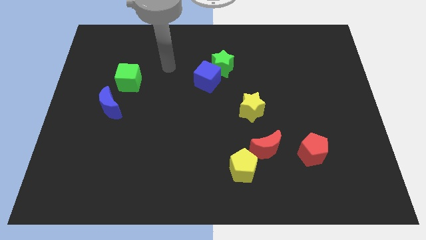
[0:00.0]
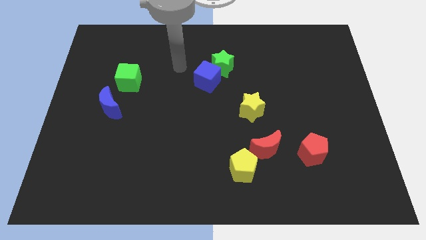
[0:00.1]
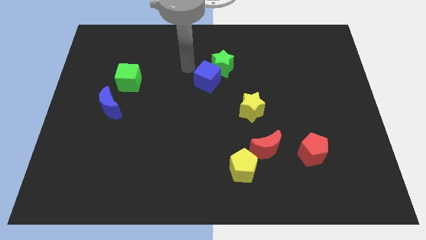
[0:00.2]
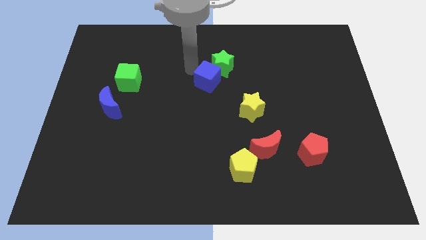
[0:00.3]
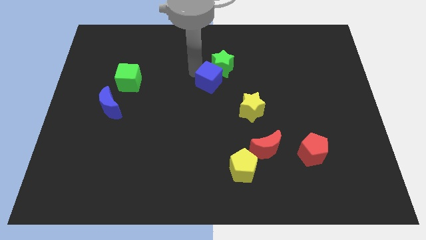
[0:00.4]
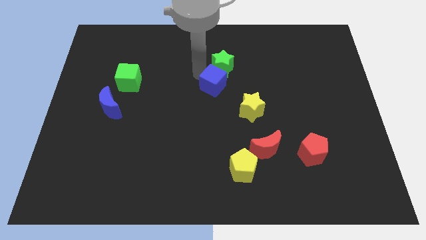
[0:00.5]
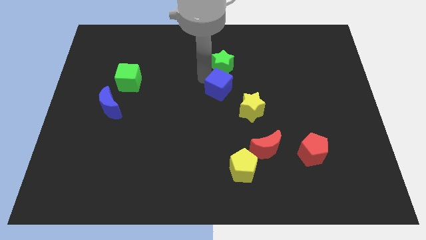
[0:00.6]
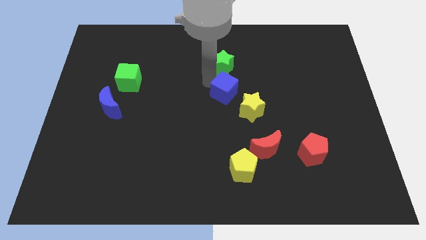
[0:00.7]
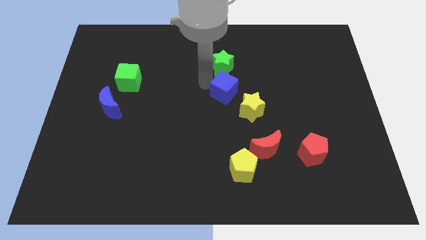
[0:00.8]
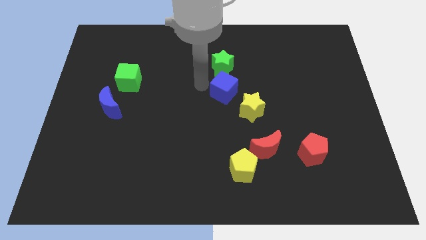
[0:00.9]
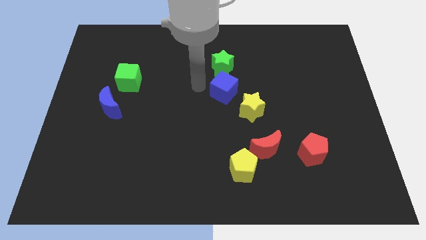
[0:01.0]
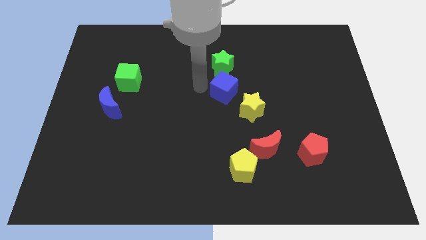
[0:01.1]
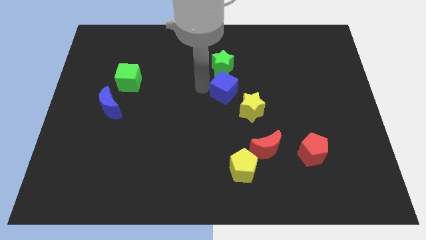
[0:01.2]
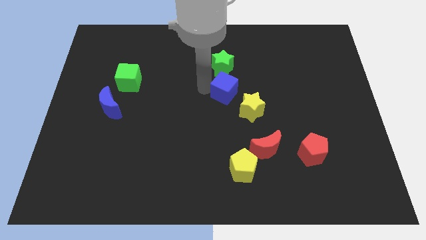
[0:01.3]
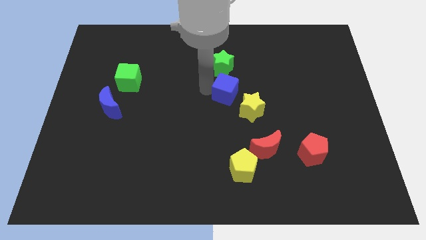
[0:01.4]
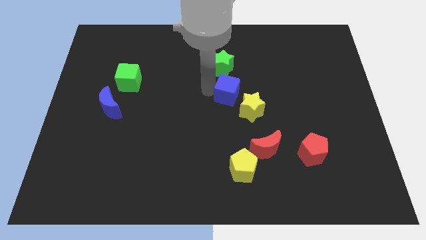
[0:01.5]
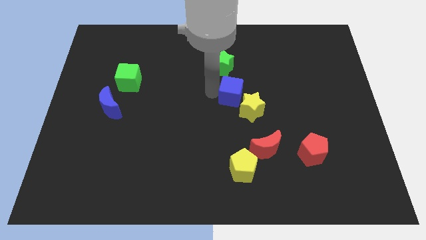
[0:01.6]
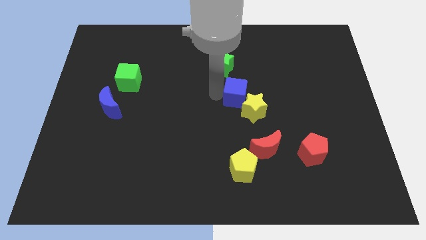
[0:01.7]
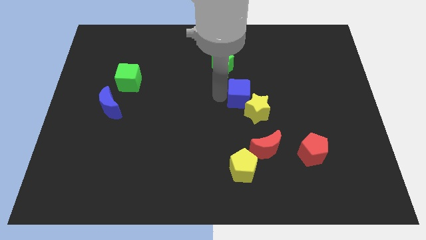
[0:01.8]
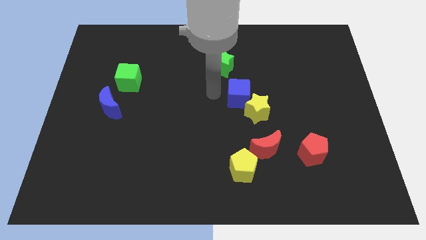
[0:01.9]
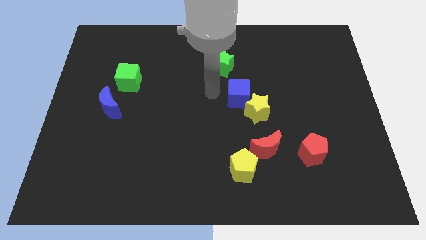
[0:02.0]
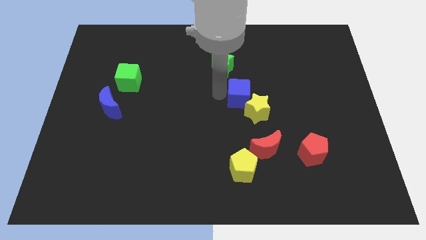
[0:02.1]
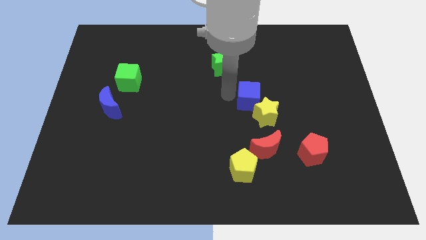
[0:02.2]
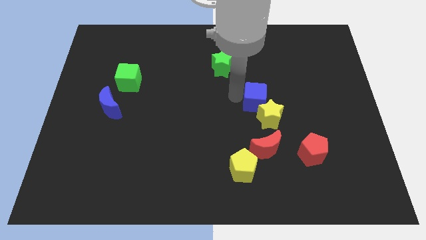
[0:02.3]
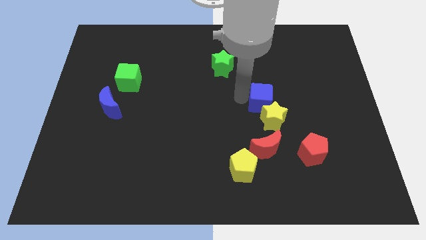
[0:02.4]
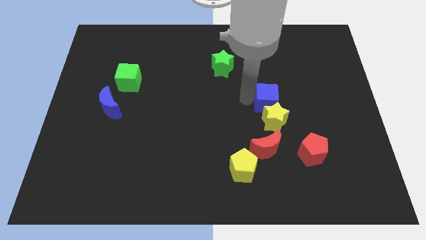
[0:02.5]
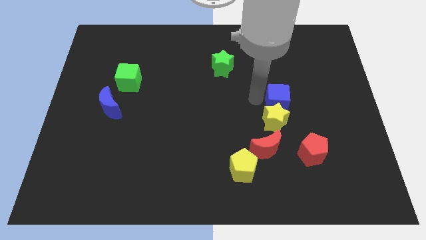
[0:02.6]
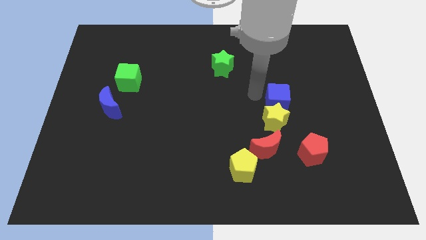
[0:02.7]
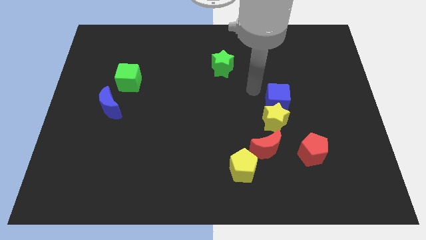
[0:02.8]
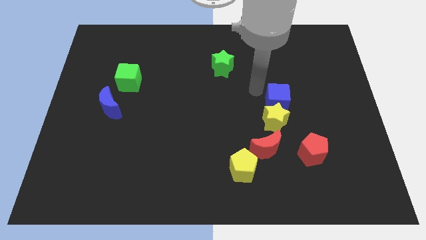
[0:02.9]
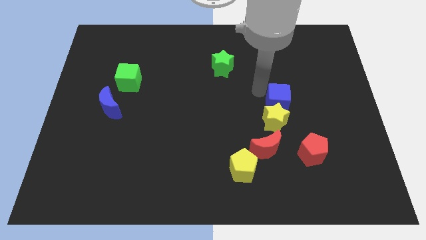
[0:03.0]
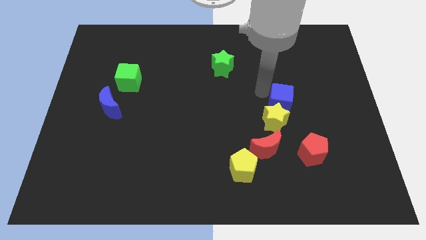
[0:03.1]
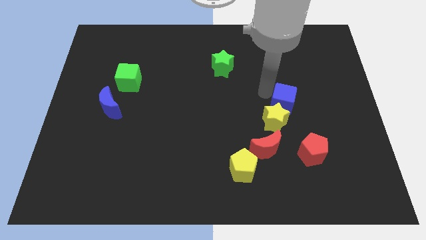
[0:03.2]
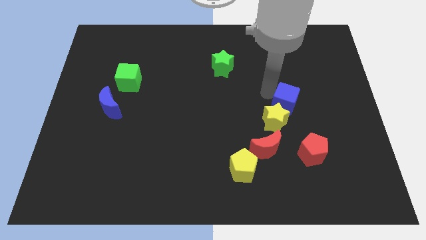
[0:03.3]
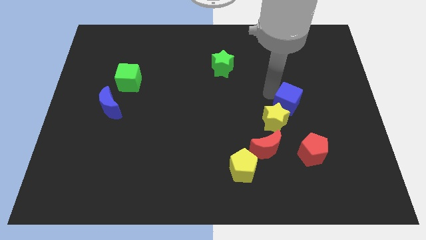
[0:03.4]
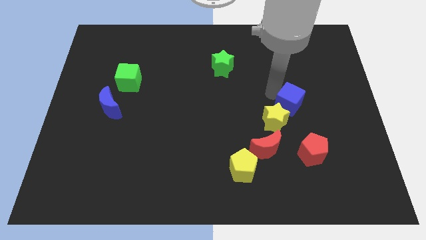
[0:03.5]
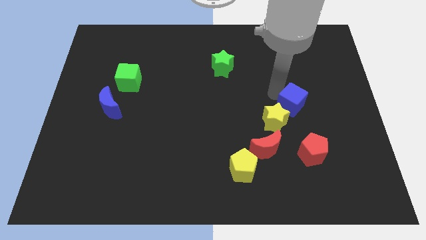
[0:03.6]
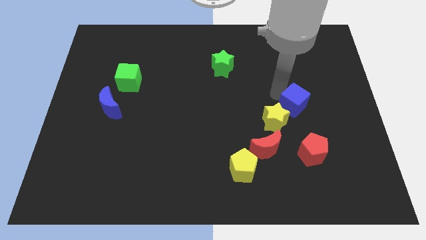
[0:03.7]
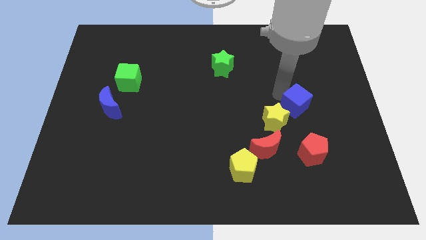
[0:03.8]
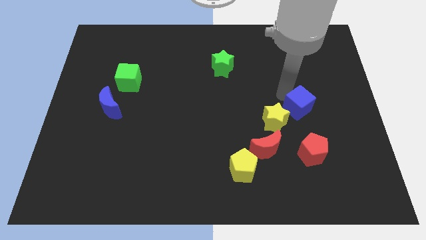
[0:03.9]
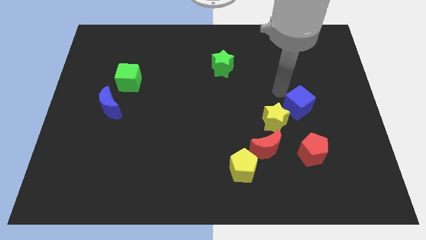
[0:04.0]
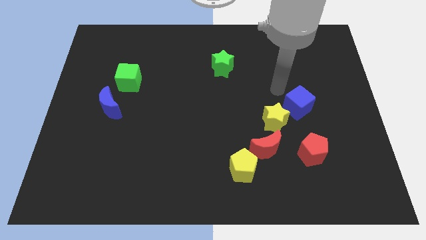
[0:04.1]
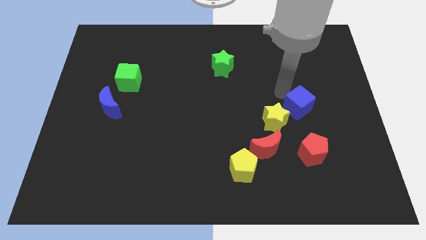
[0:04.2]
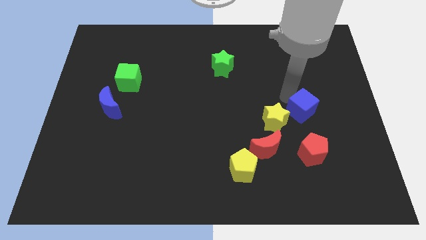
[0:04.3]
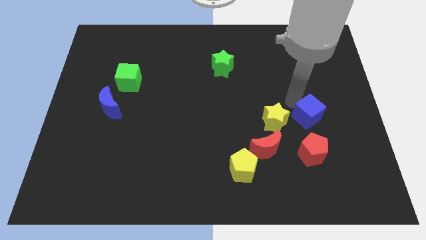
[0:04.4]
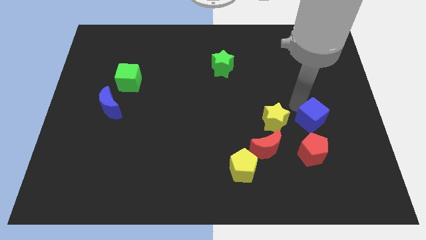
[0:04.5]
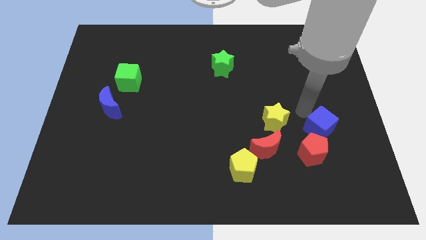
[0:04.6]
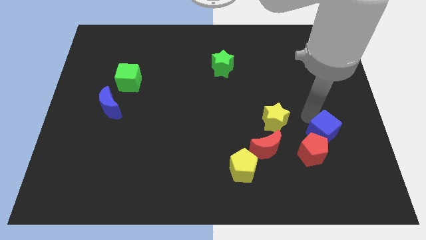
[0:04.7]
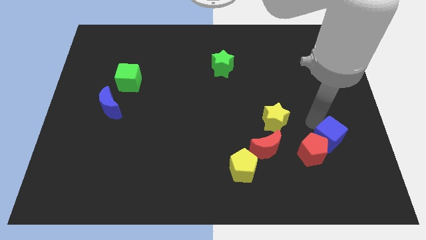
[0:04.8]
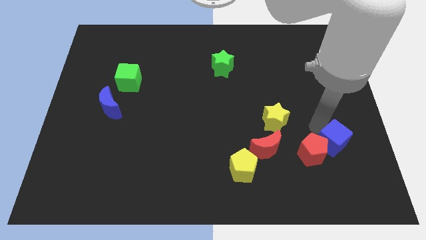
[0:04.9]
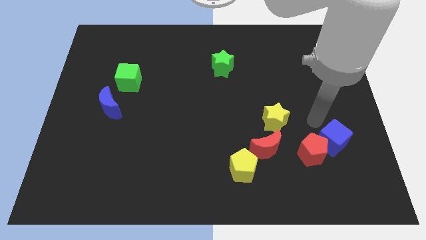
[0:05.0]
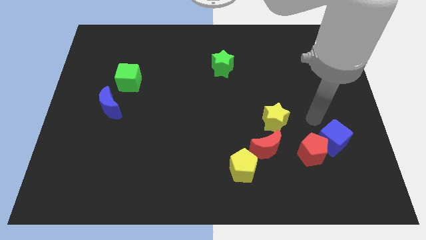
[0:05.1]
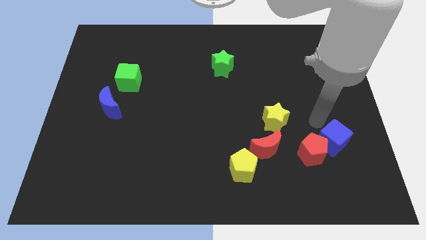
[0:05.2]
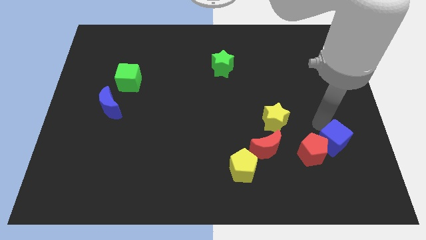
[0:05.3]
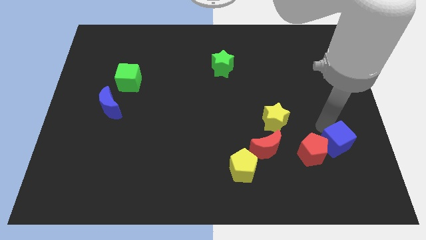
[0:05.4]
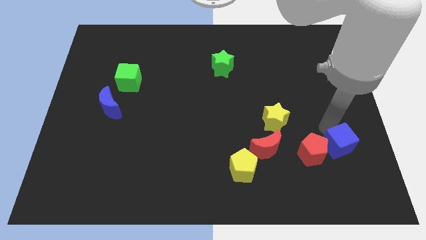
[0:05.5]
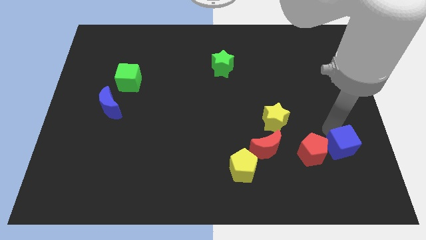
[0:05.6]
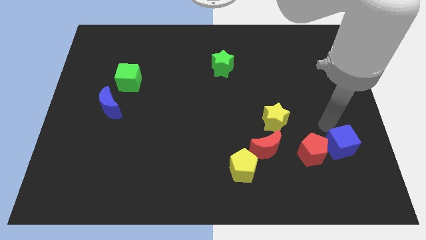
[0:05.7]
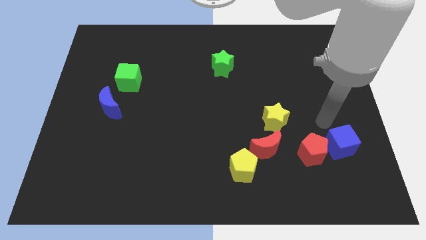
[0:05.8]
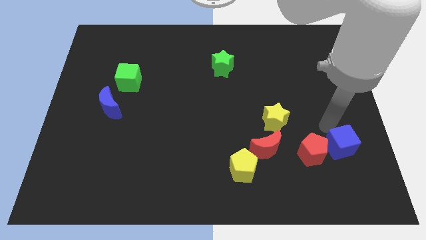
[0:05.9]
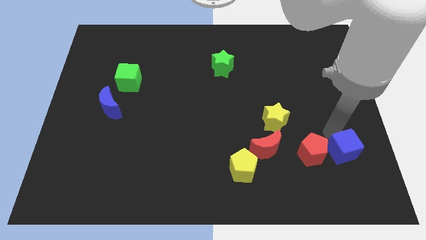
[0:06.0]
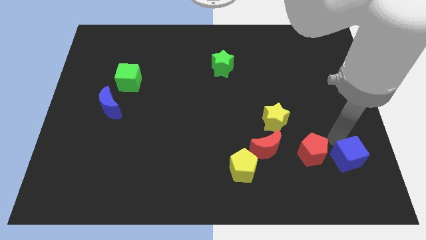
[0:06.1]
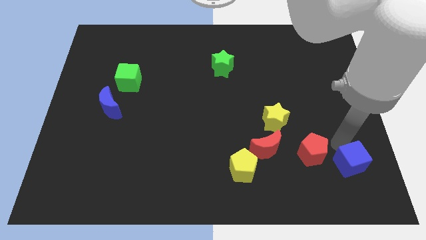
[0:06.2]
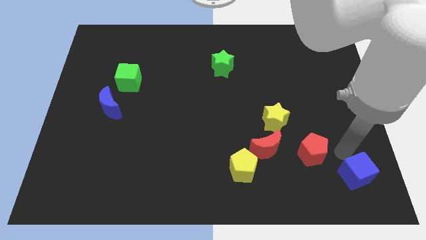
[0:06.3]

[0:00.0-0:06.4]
slide the blue cube to the lower right corner

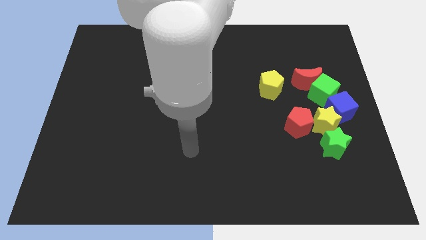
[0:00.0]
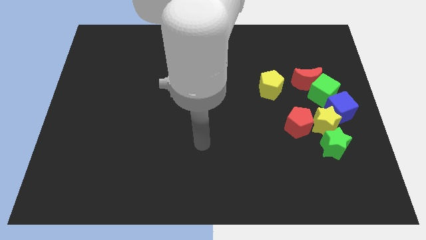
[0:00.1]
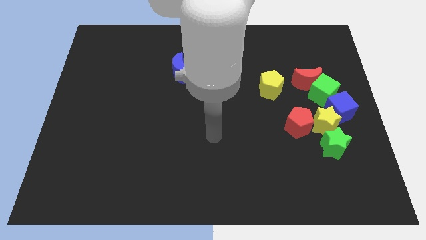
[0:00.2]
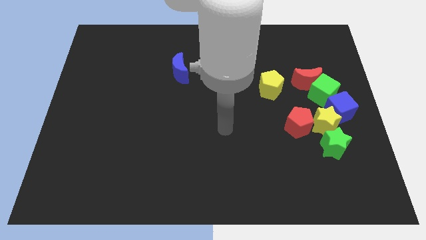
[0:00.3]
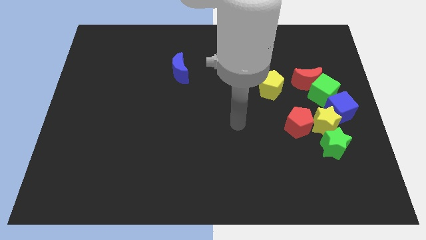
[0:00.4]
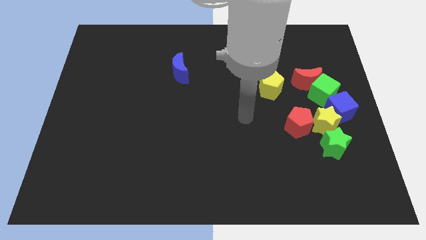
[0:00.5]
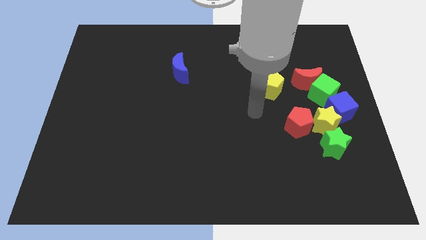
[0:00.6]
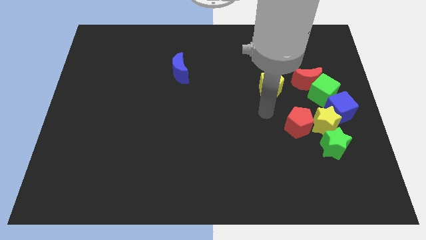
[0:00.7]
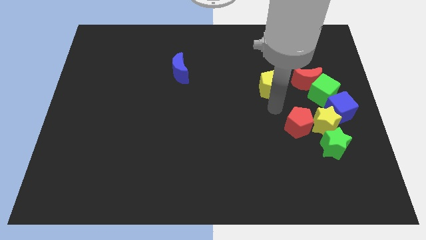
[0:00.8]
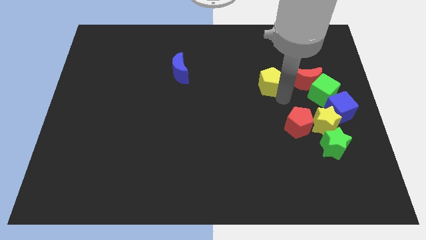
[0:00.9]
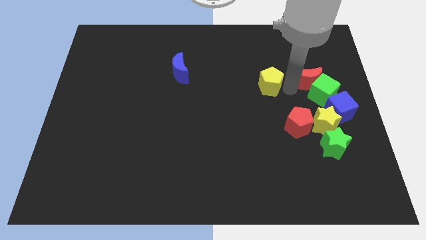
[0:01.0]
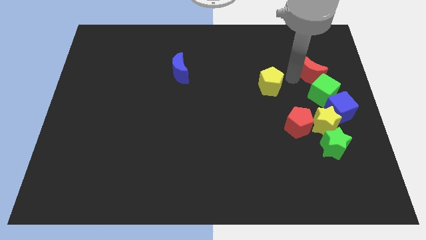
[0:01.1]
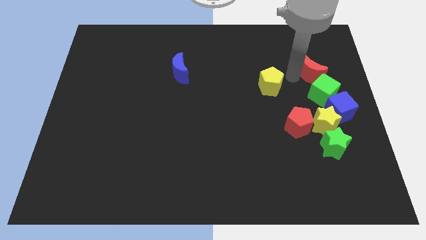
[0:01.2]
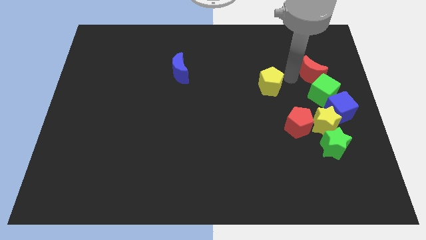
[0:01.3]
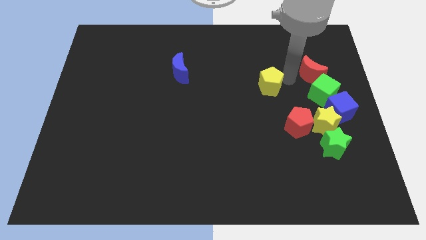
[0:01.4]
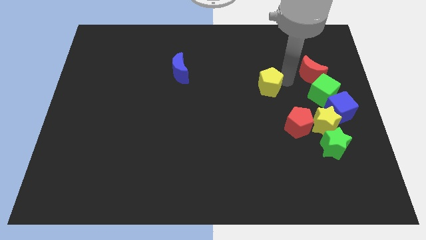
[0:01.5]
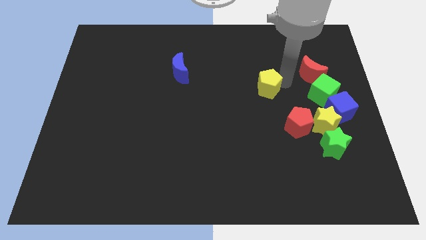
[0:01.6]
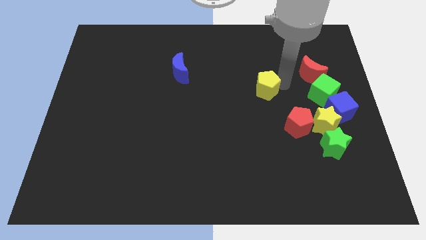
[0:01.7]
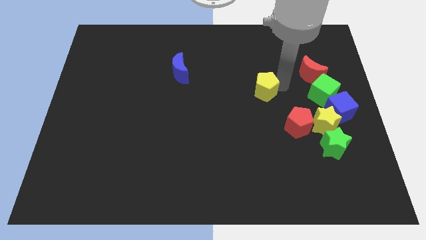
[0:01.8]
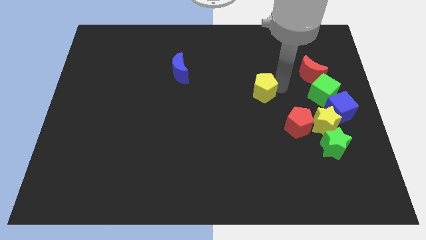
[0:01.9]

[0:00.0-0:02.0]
push the yellow pentagon to the center of the board
